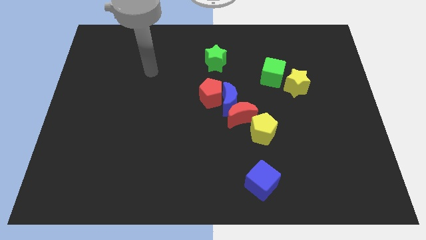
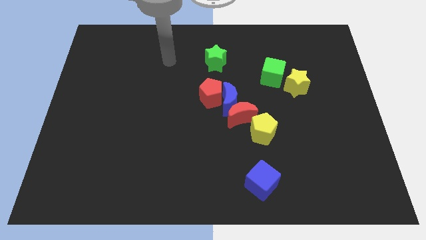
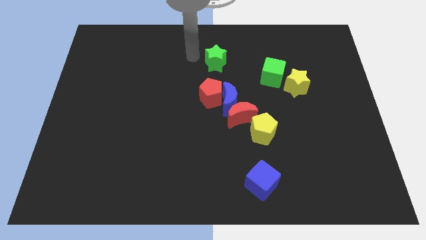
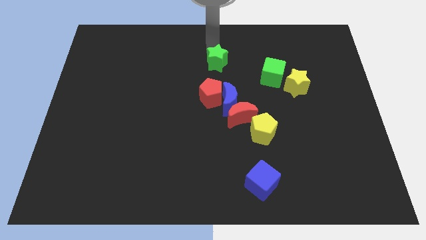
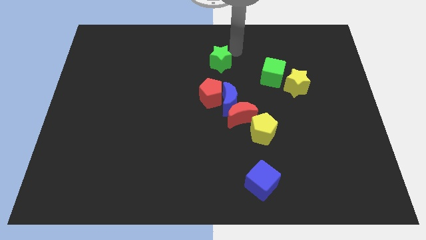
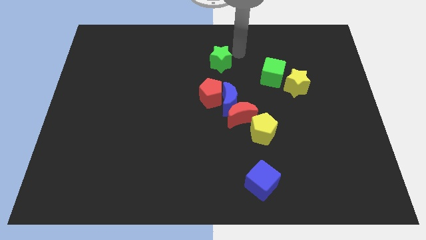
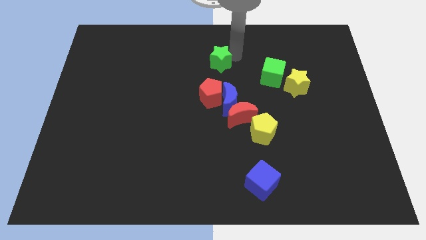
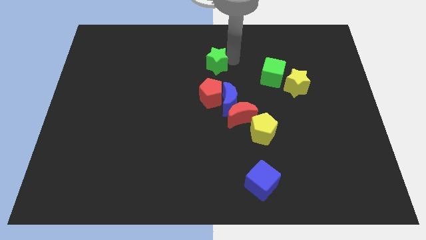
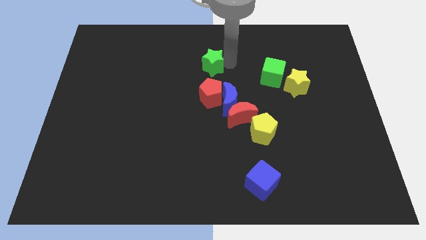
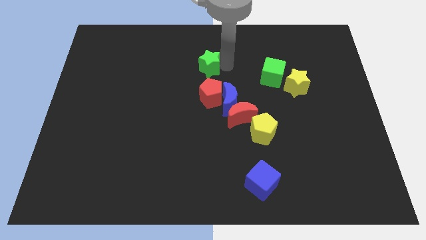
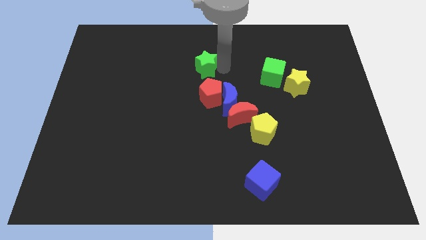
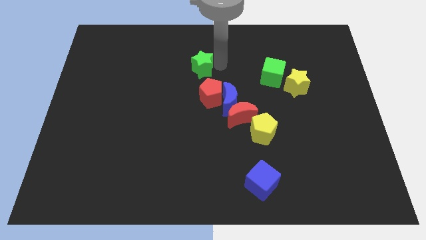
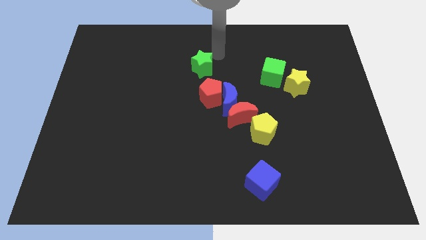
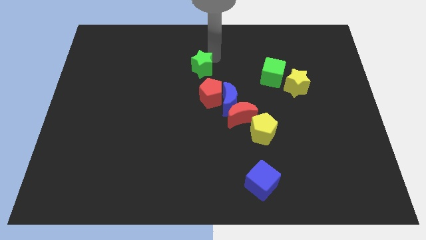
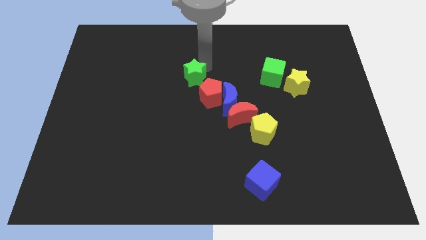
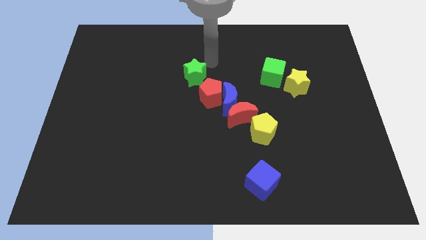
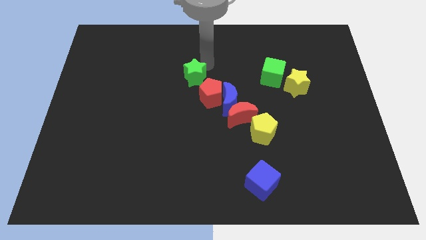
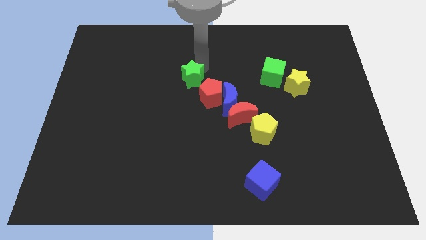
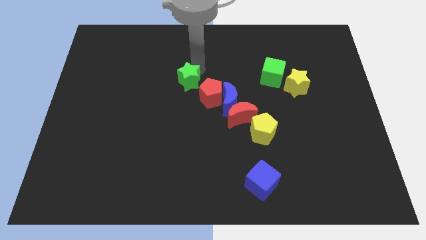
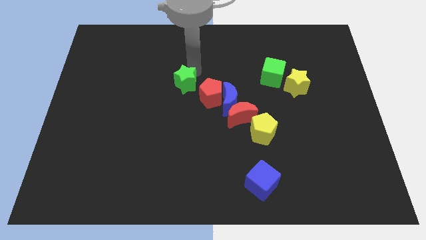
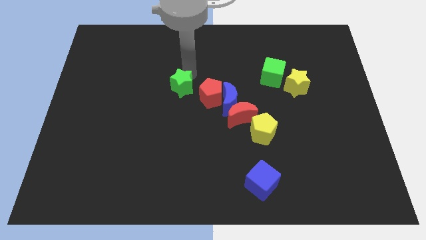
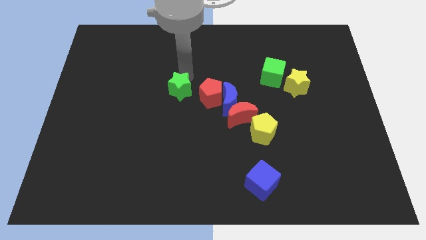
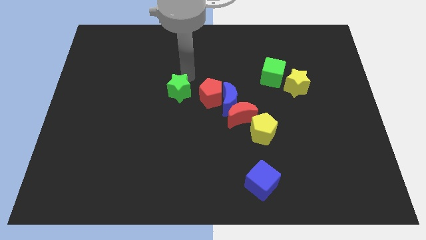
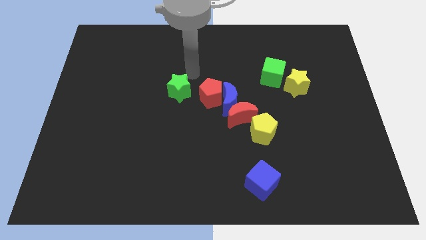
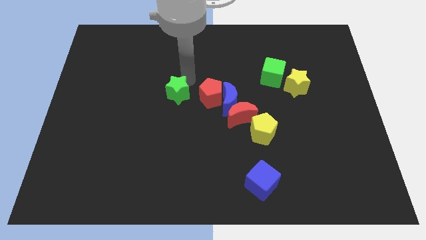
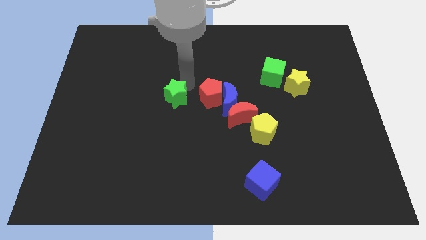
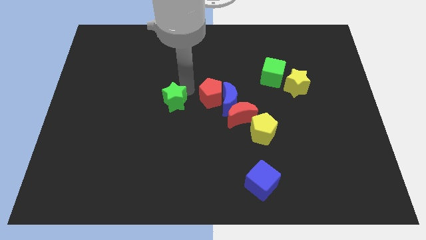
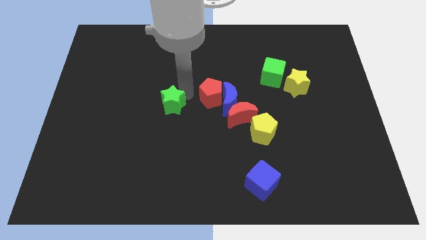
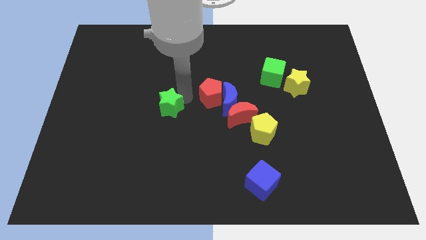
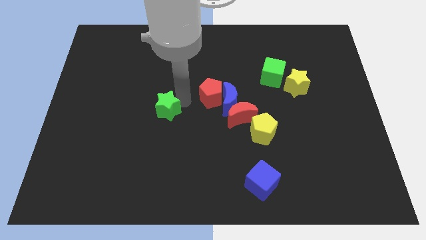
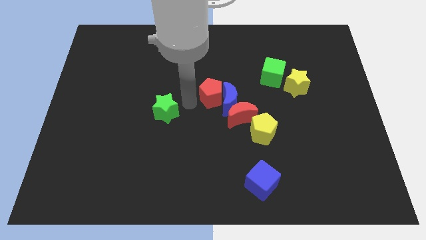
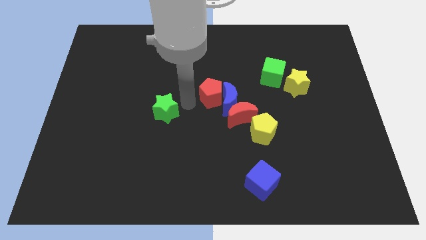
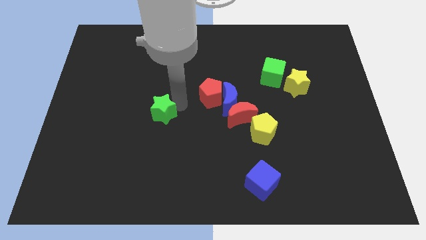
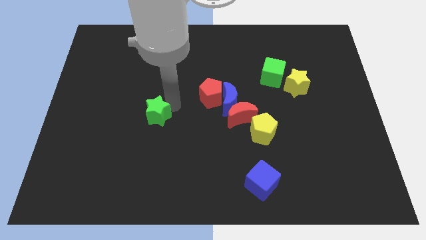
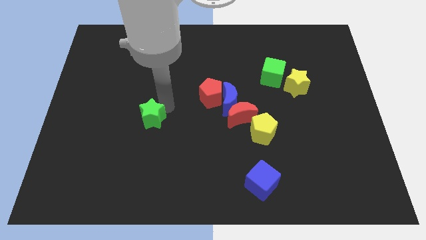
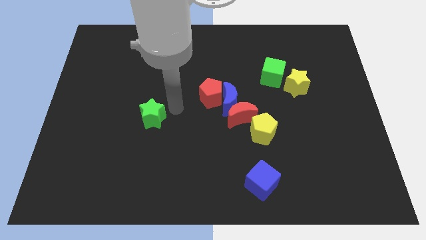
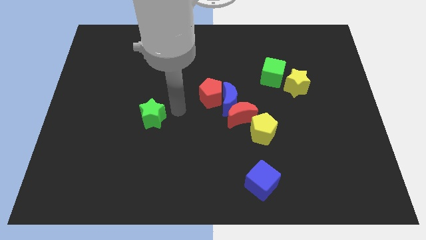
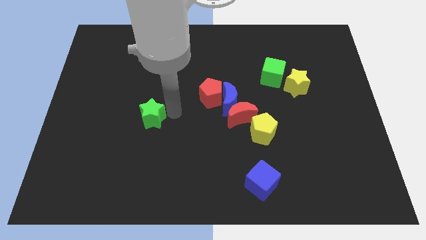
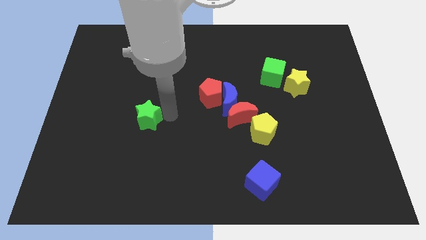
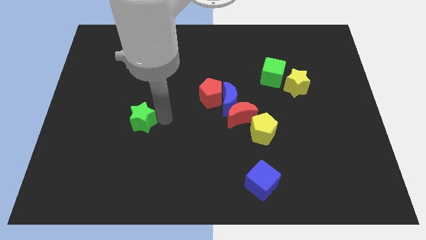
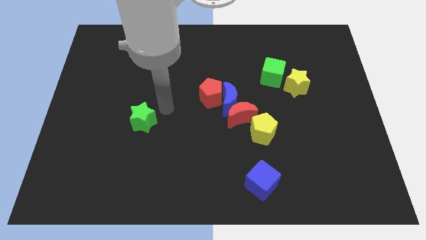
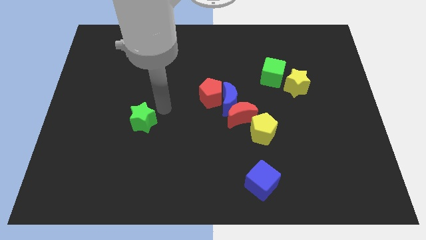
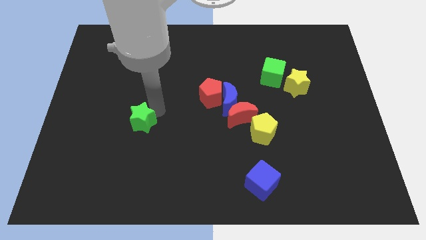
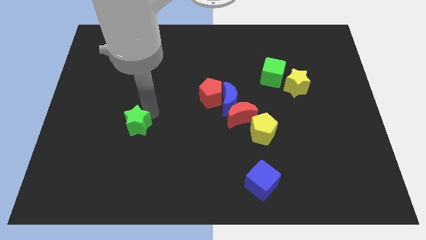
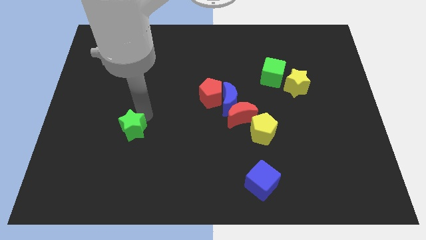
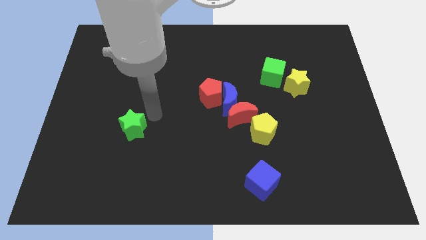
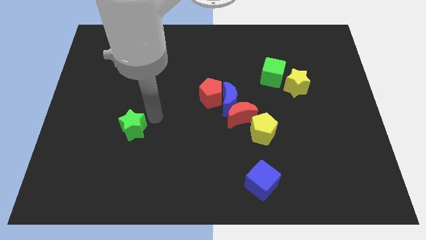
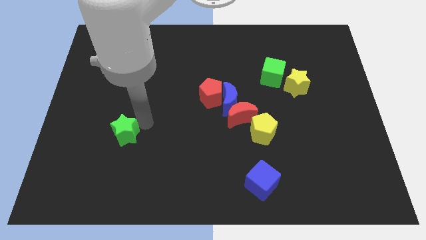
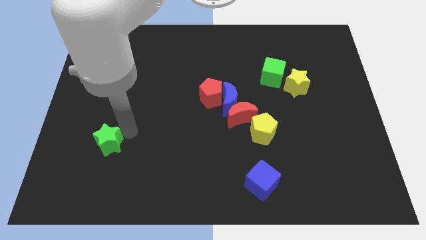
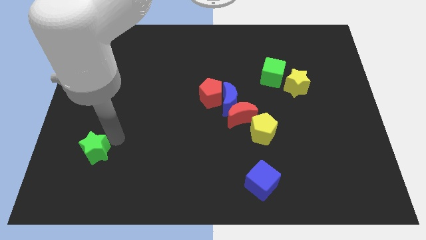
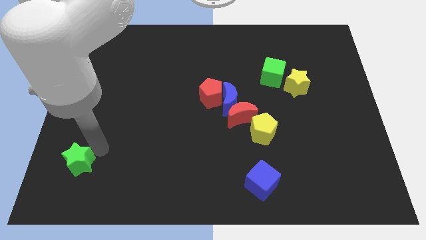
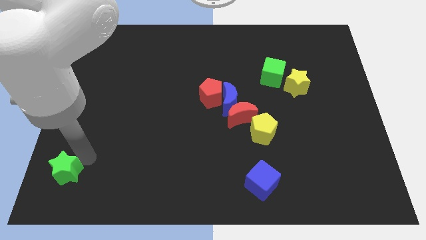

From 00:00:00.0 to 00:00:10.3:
push the green star to the bottom left
